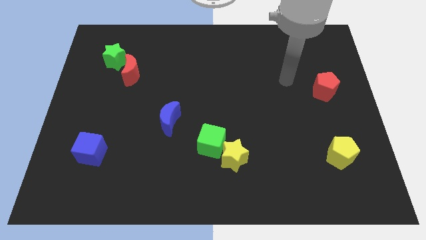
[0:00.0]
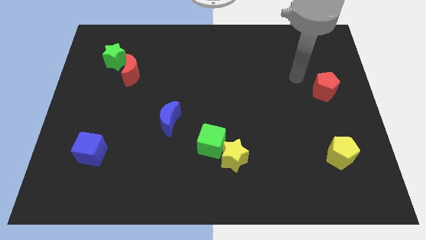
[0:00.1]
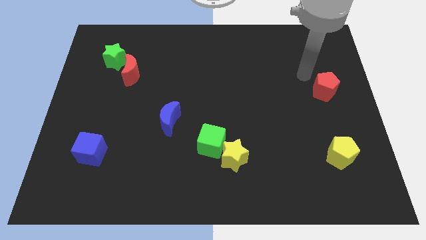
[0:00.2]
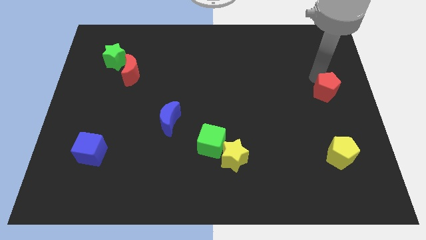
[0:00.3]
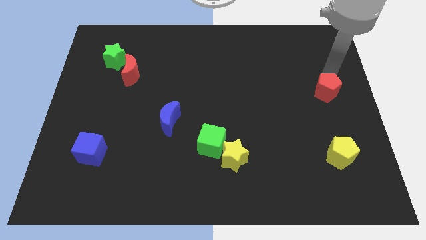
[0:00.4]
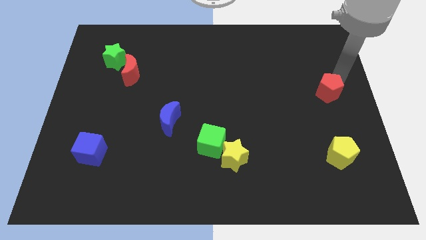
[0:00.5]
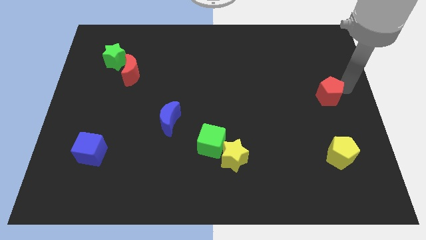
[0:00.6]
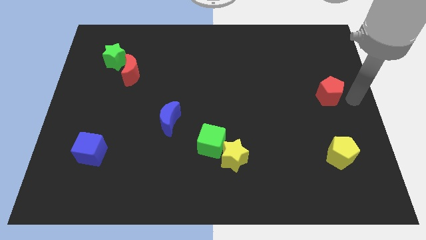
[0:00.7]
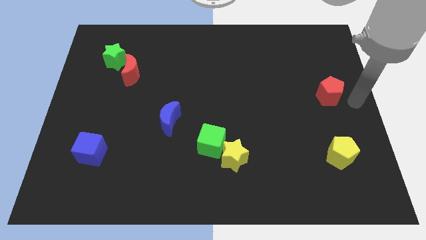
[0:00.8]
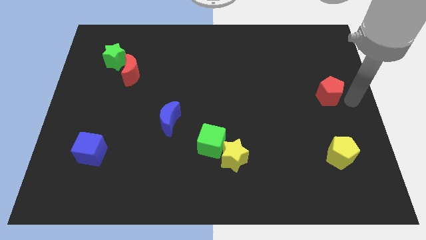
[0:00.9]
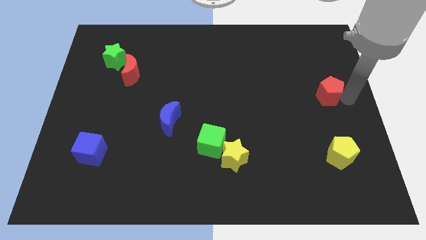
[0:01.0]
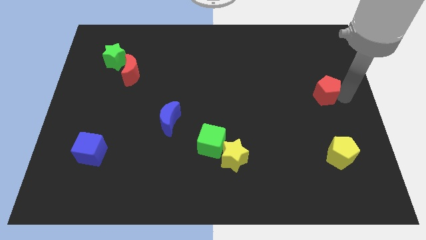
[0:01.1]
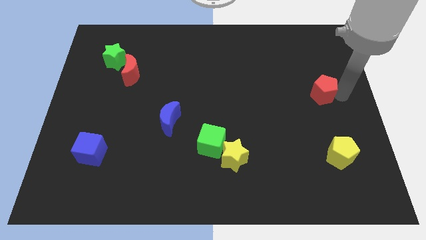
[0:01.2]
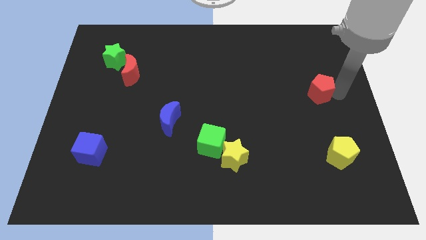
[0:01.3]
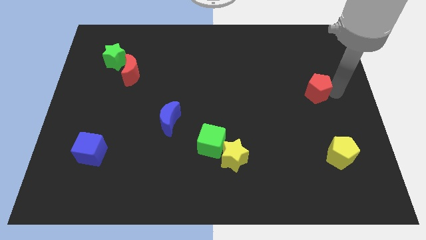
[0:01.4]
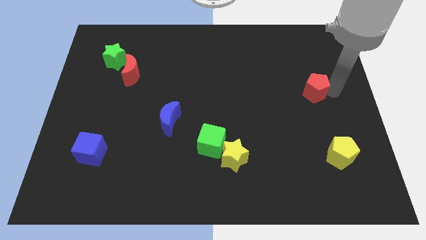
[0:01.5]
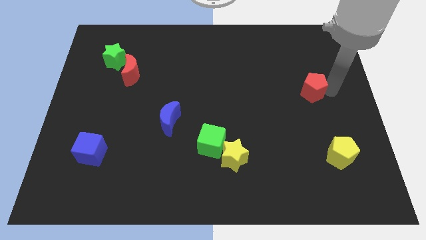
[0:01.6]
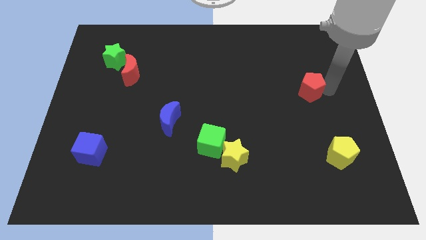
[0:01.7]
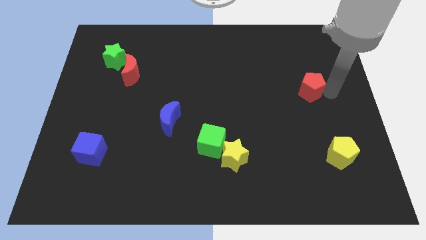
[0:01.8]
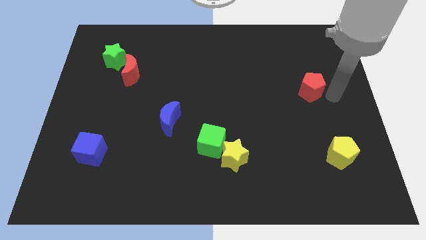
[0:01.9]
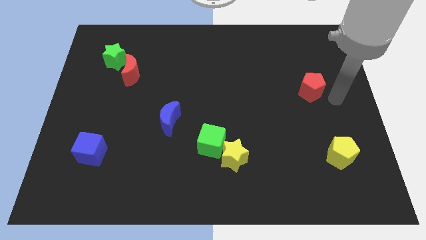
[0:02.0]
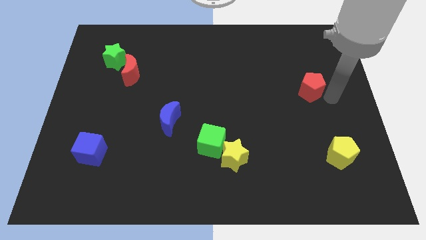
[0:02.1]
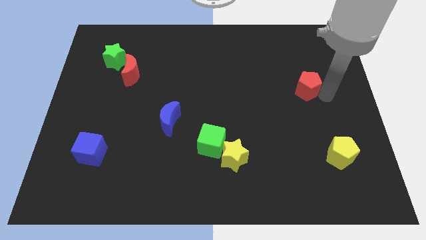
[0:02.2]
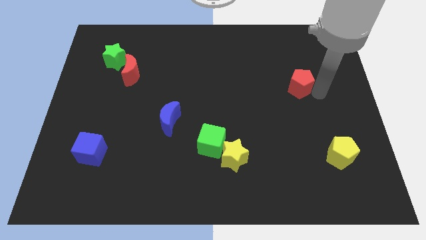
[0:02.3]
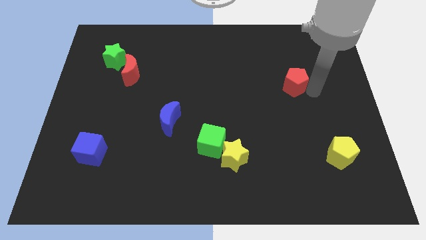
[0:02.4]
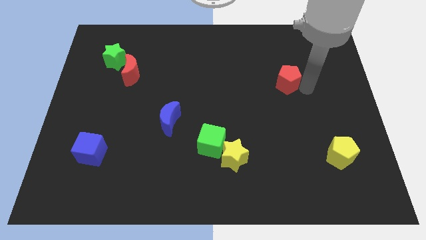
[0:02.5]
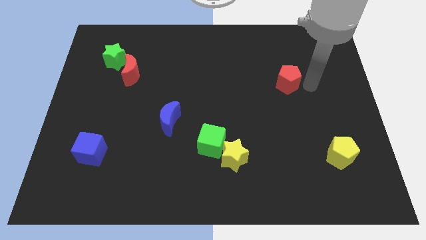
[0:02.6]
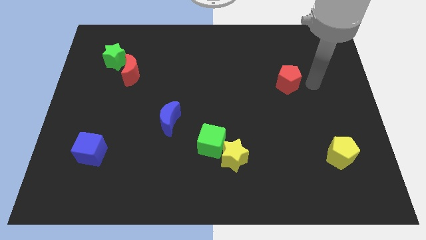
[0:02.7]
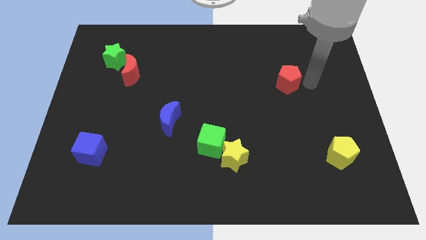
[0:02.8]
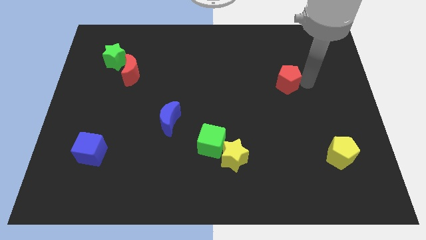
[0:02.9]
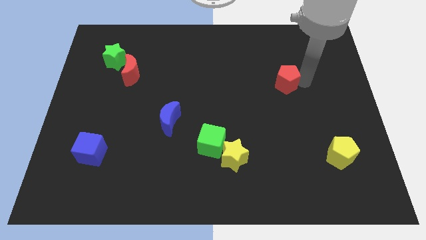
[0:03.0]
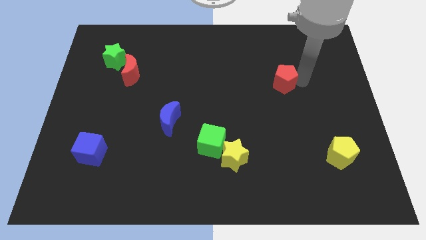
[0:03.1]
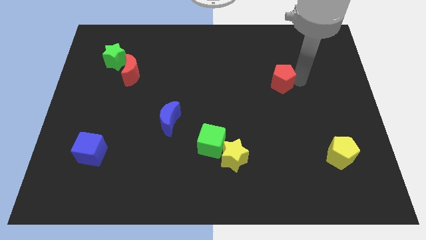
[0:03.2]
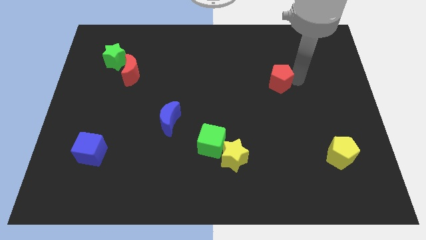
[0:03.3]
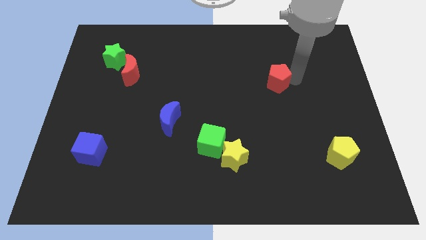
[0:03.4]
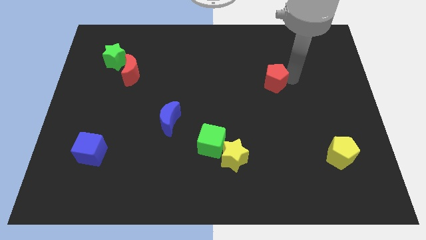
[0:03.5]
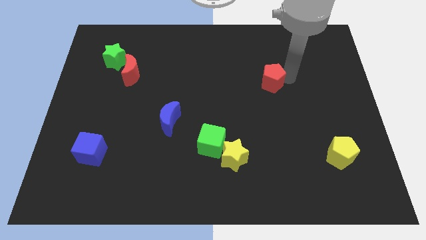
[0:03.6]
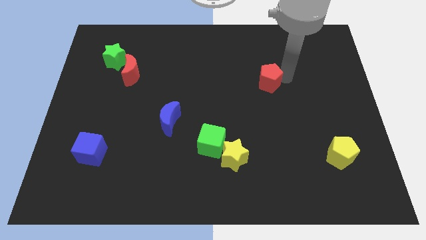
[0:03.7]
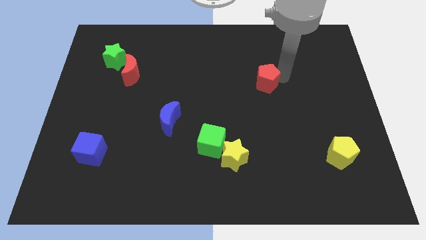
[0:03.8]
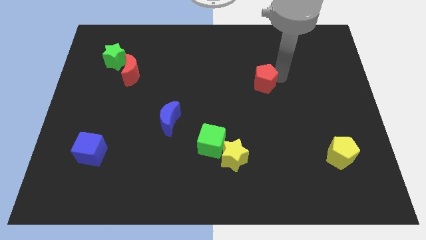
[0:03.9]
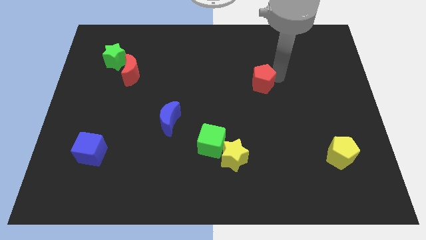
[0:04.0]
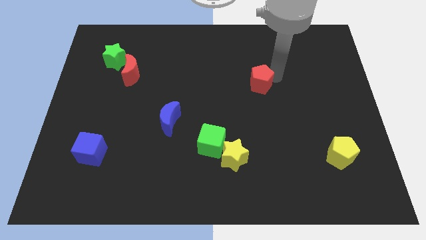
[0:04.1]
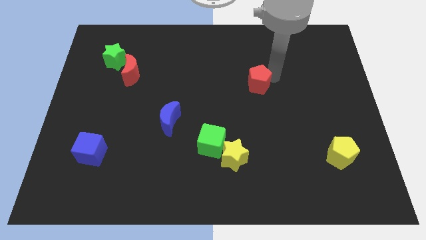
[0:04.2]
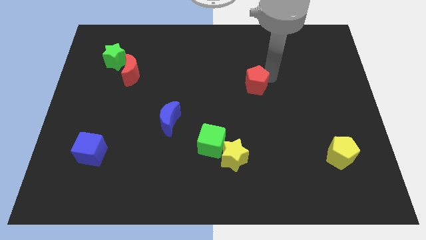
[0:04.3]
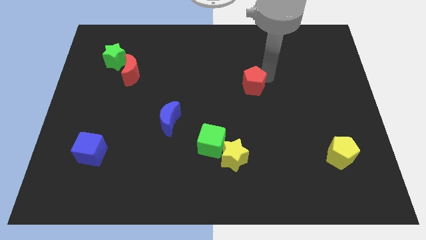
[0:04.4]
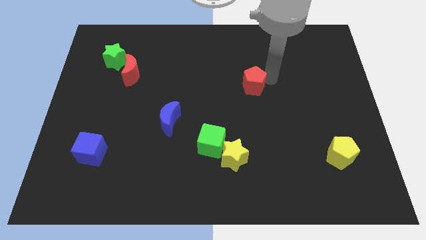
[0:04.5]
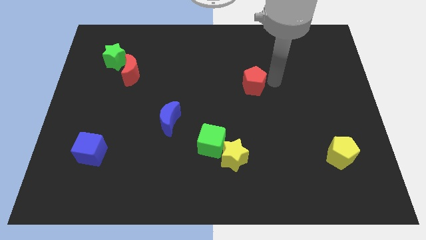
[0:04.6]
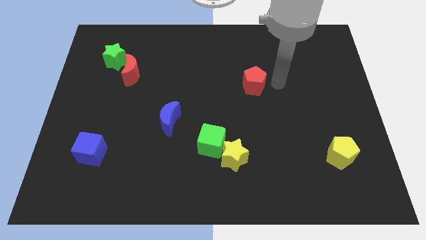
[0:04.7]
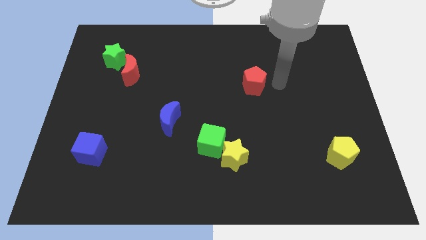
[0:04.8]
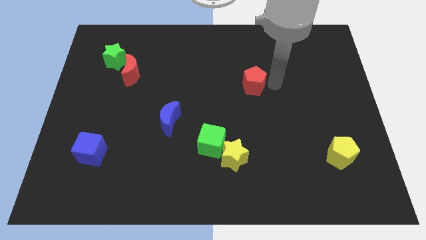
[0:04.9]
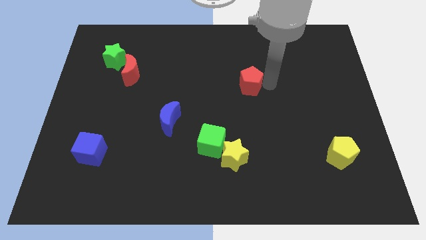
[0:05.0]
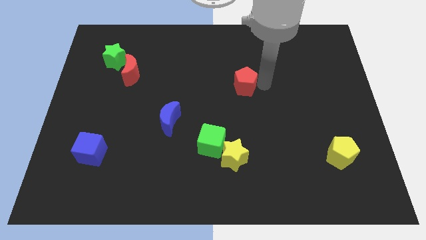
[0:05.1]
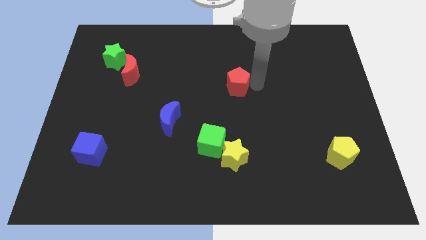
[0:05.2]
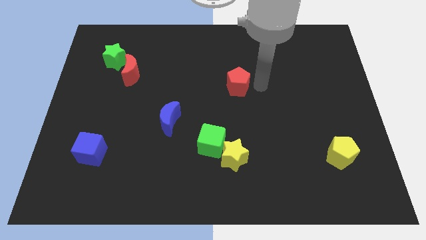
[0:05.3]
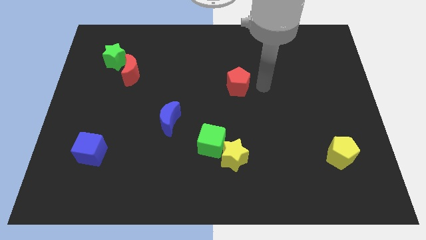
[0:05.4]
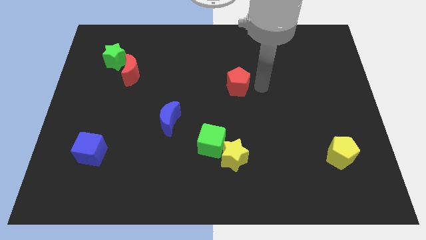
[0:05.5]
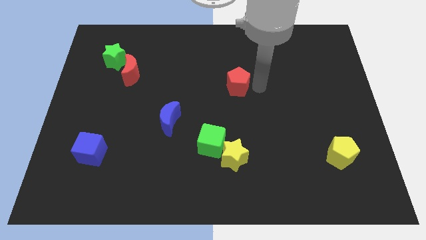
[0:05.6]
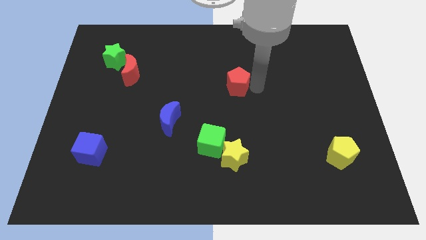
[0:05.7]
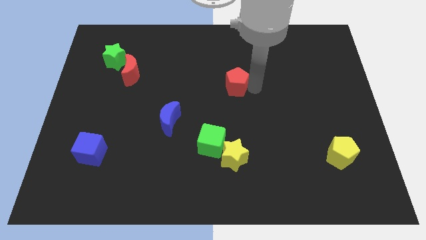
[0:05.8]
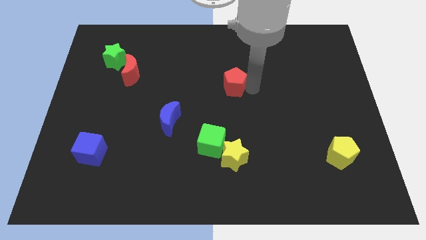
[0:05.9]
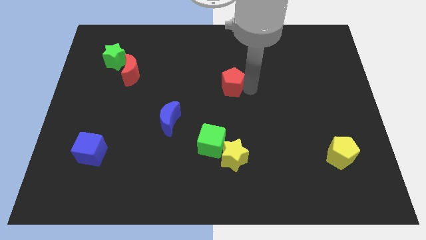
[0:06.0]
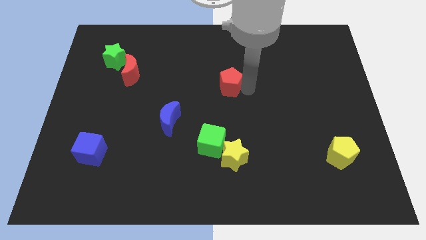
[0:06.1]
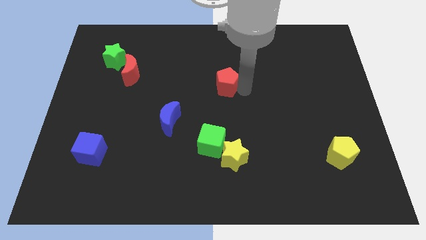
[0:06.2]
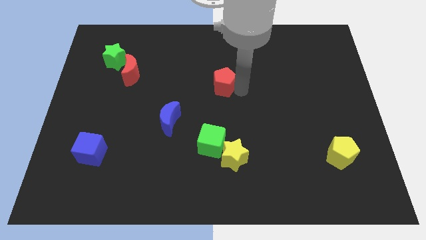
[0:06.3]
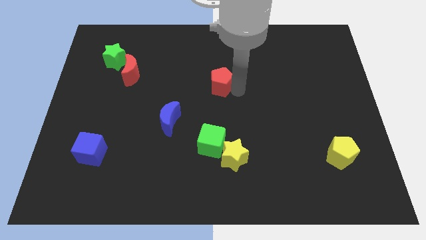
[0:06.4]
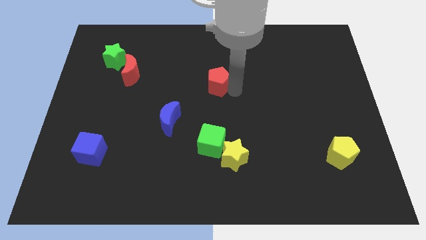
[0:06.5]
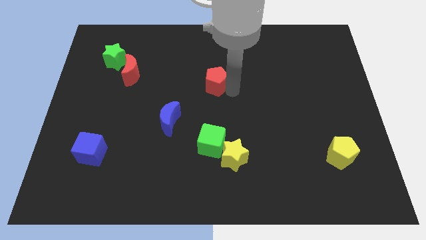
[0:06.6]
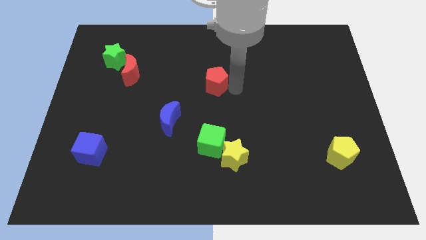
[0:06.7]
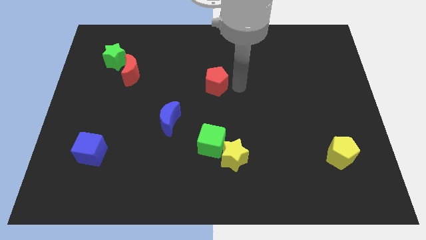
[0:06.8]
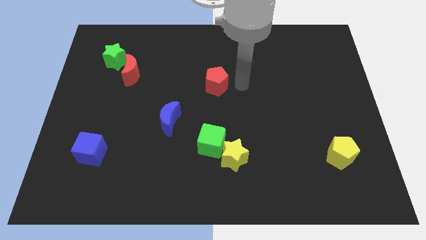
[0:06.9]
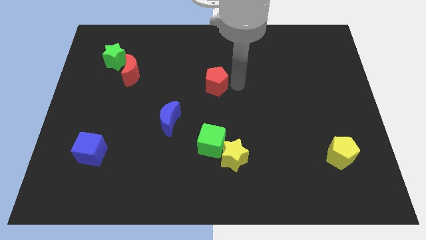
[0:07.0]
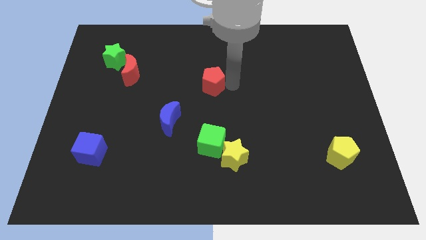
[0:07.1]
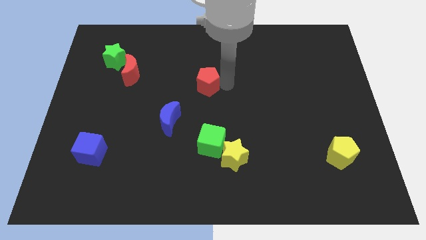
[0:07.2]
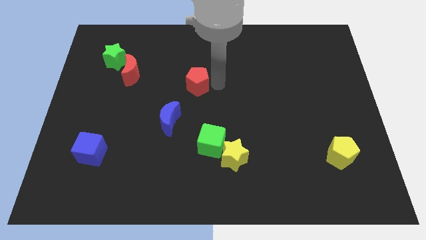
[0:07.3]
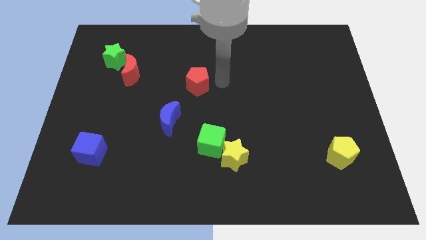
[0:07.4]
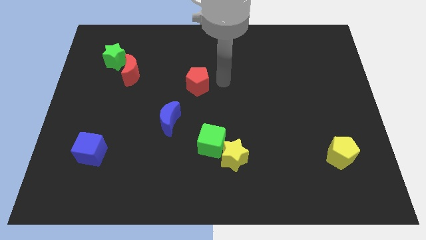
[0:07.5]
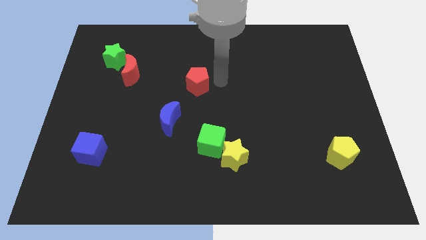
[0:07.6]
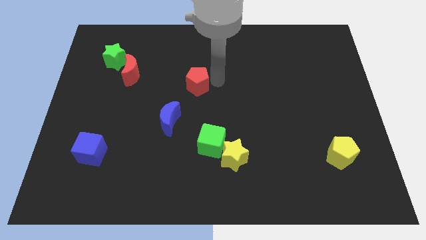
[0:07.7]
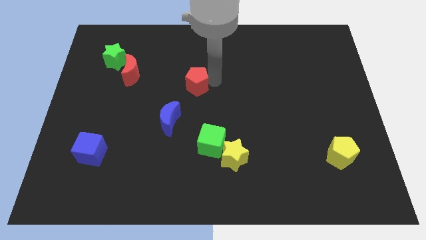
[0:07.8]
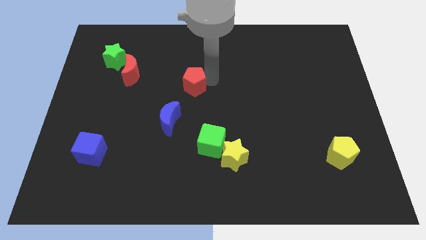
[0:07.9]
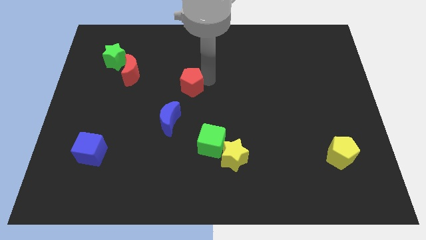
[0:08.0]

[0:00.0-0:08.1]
move the red pentagon to the top side of the blue moon
